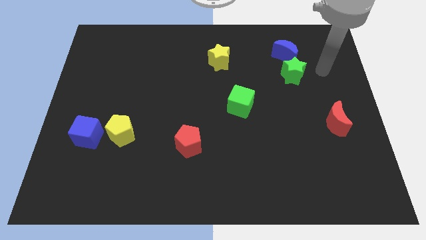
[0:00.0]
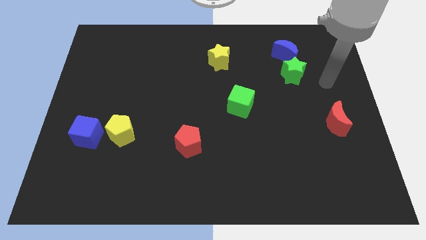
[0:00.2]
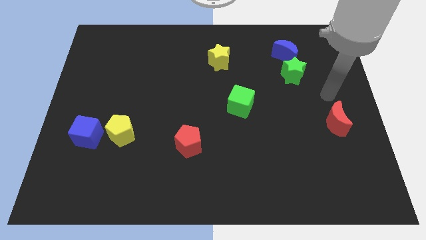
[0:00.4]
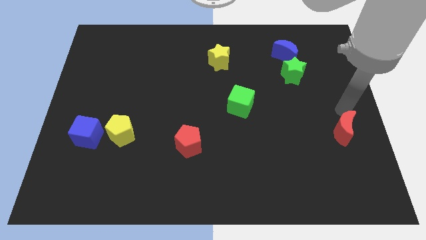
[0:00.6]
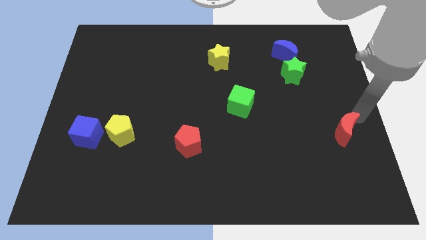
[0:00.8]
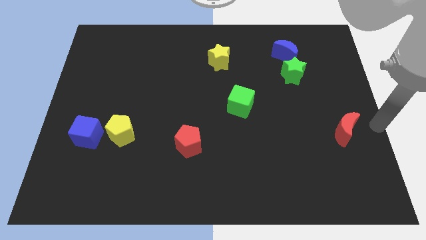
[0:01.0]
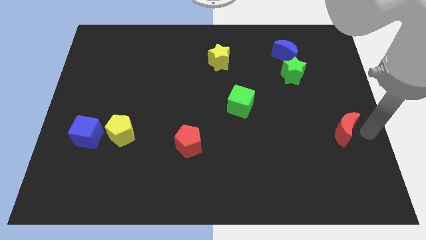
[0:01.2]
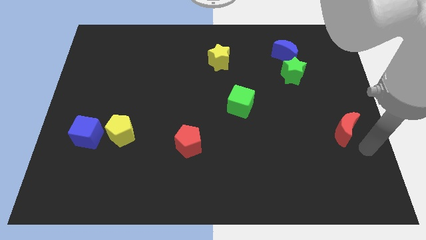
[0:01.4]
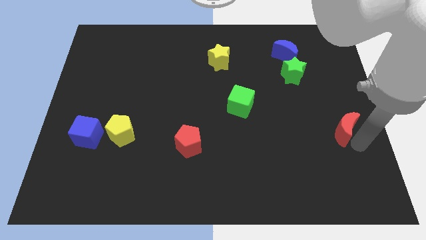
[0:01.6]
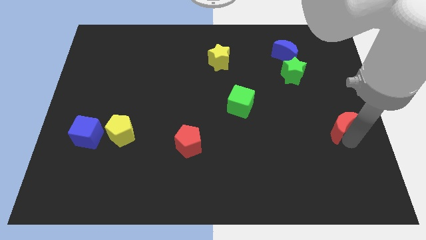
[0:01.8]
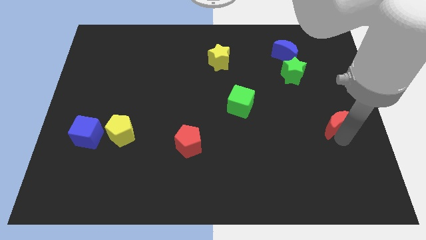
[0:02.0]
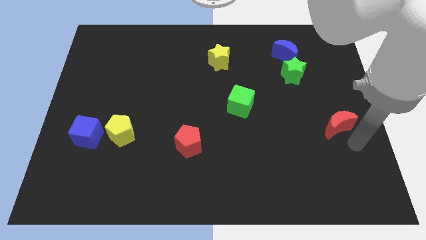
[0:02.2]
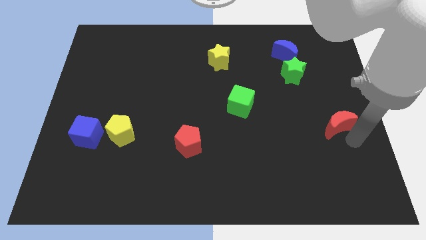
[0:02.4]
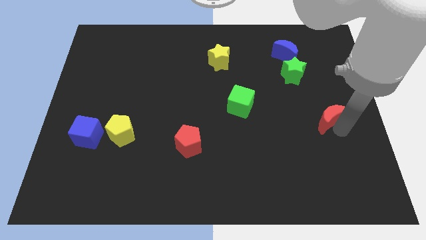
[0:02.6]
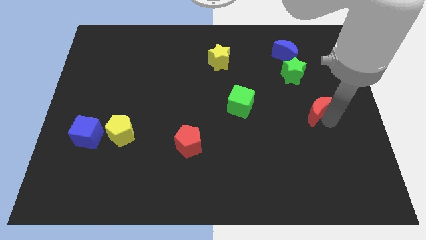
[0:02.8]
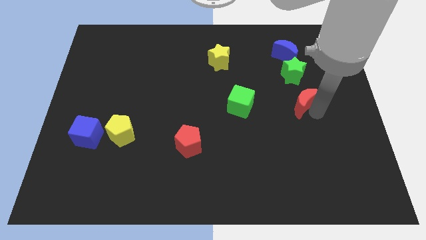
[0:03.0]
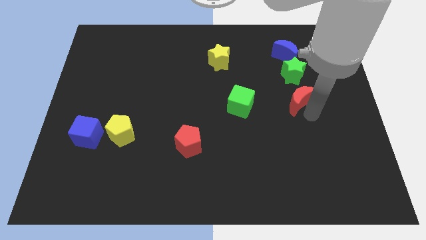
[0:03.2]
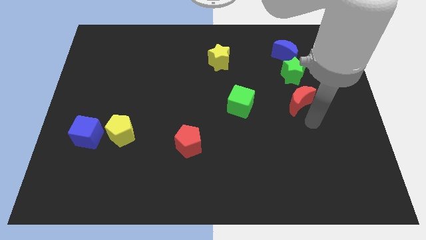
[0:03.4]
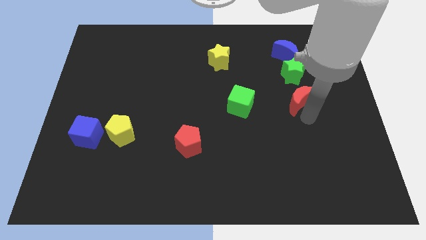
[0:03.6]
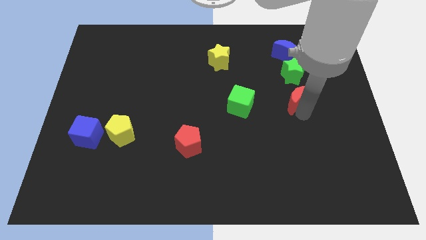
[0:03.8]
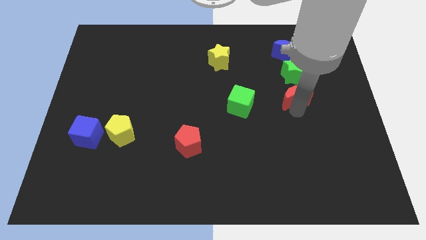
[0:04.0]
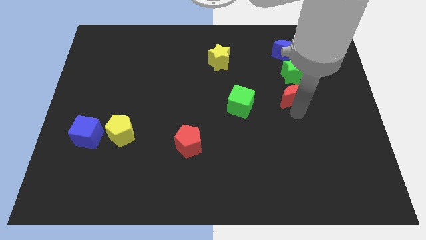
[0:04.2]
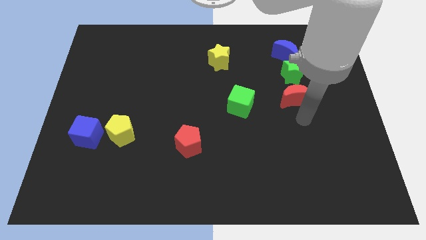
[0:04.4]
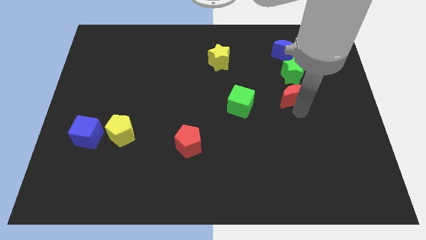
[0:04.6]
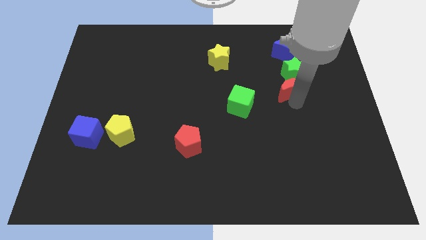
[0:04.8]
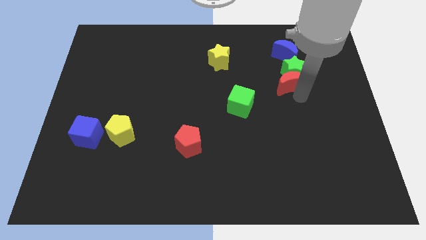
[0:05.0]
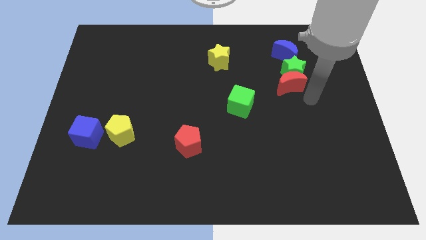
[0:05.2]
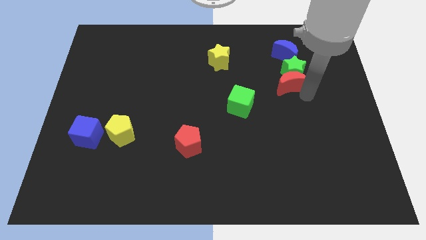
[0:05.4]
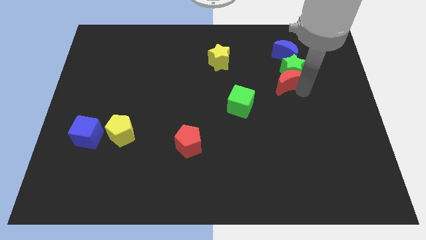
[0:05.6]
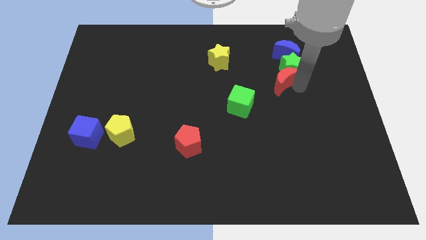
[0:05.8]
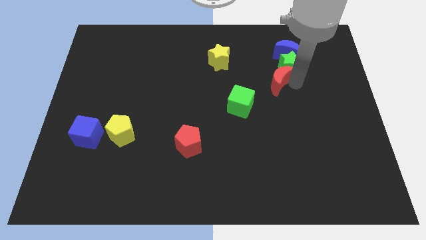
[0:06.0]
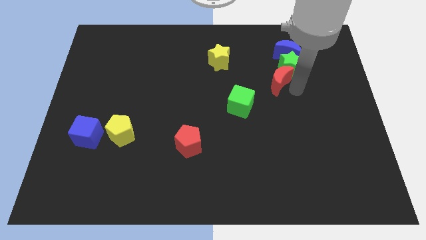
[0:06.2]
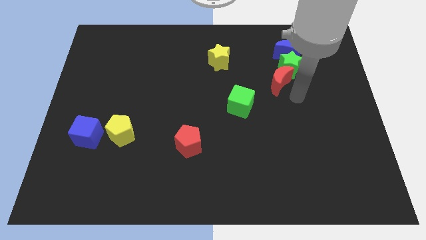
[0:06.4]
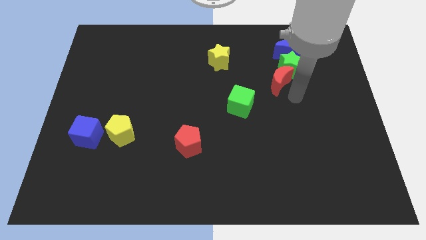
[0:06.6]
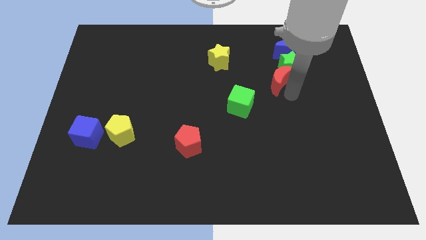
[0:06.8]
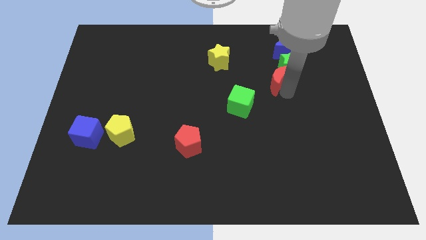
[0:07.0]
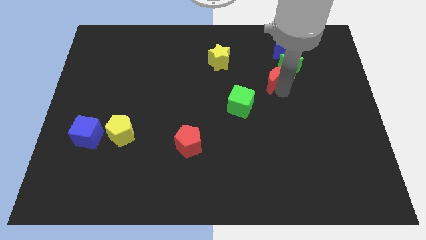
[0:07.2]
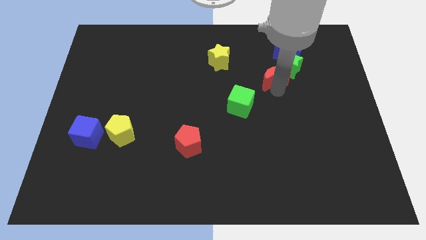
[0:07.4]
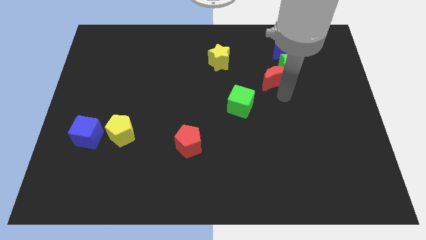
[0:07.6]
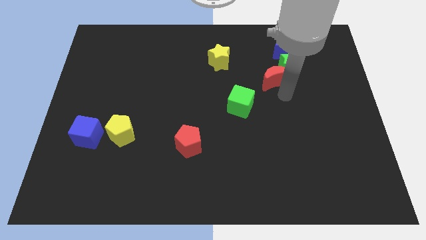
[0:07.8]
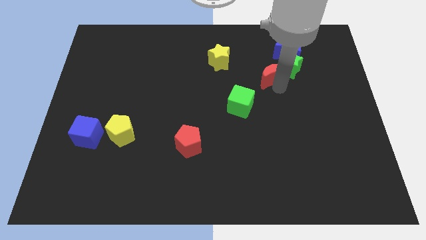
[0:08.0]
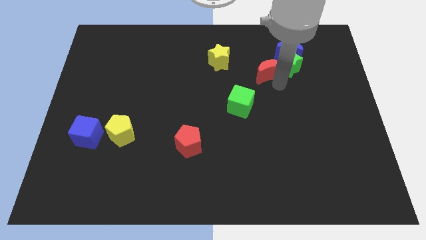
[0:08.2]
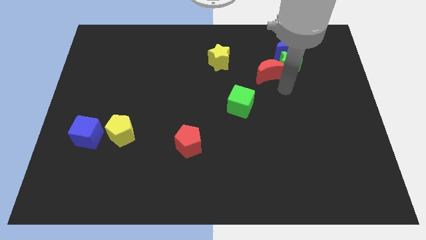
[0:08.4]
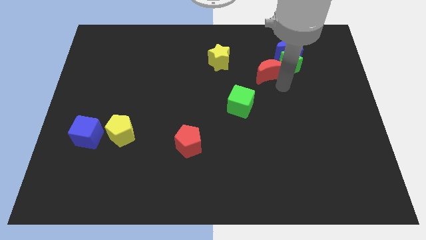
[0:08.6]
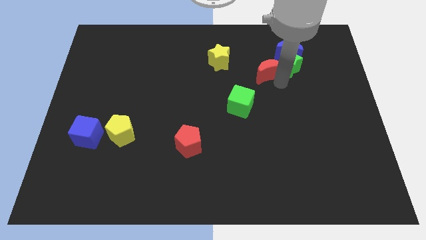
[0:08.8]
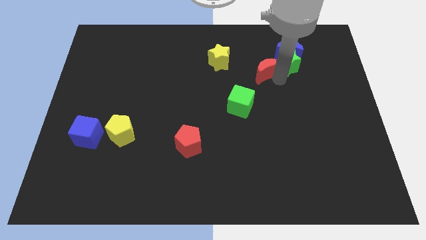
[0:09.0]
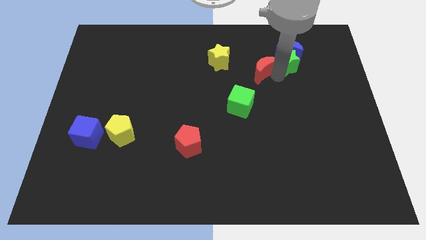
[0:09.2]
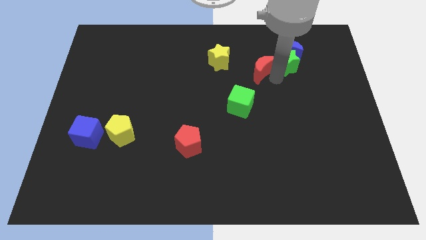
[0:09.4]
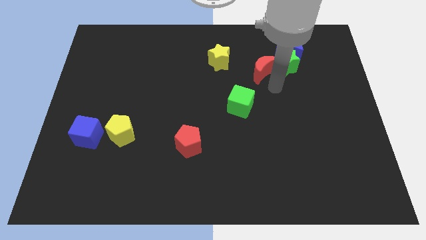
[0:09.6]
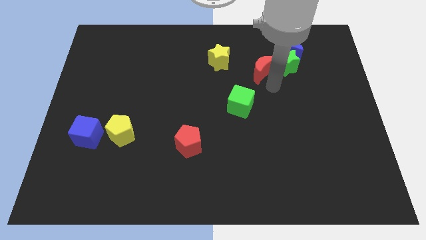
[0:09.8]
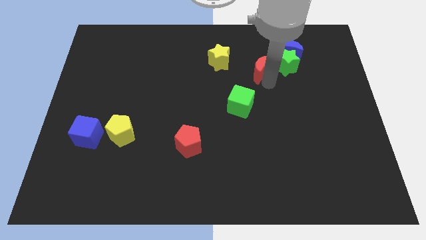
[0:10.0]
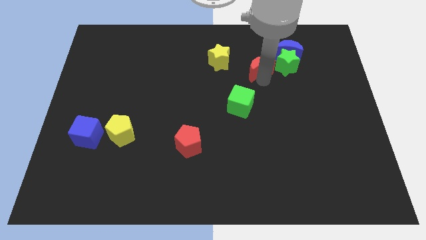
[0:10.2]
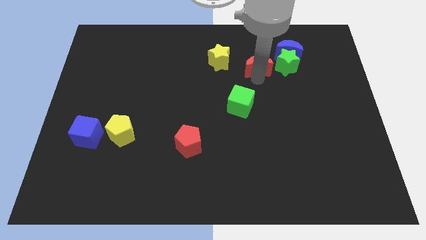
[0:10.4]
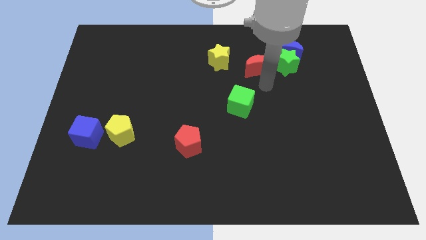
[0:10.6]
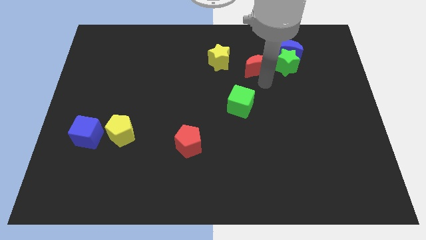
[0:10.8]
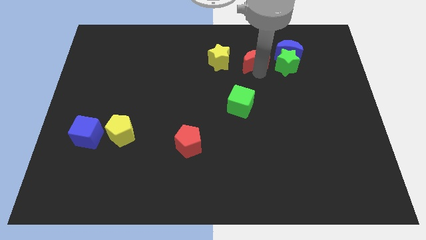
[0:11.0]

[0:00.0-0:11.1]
put the red moon to the left side of the blue moon

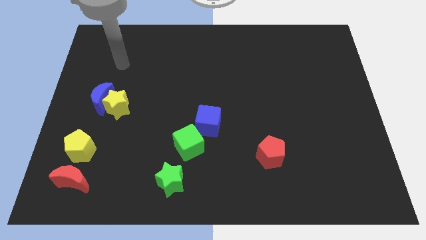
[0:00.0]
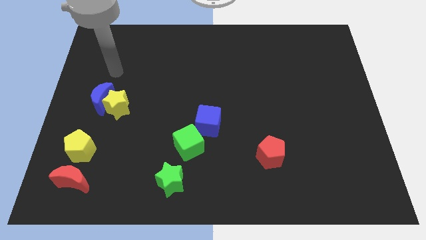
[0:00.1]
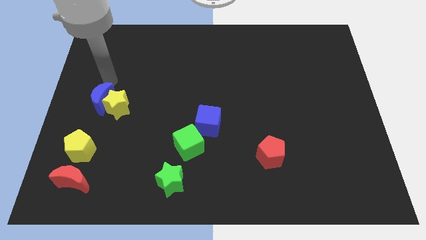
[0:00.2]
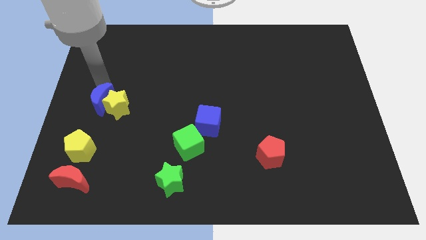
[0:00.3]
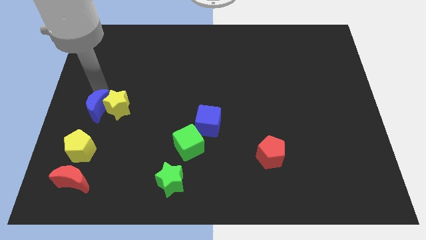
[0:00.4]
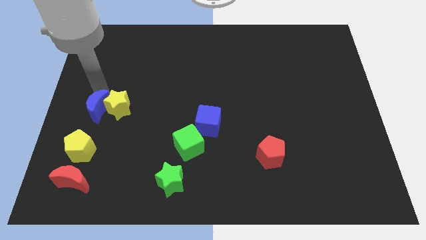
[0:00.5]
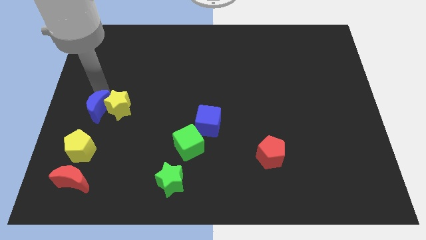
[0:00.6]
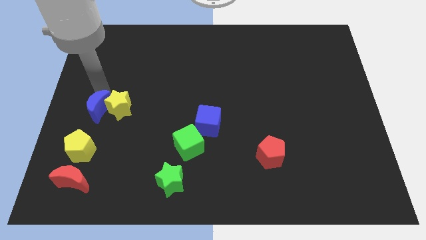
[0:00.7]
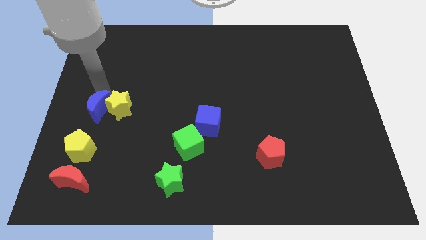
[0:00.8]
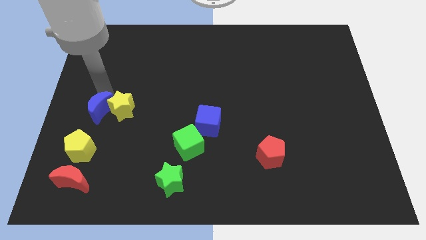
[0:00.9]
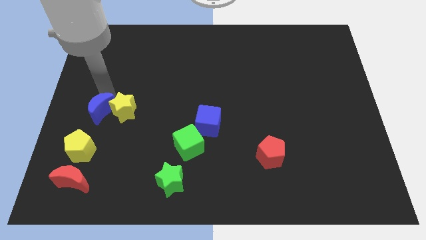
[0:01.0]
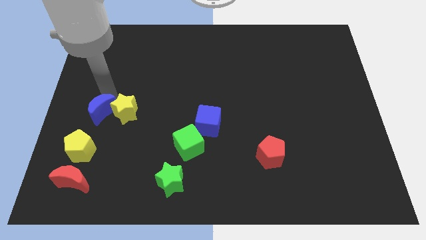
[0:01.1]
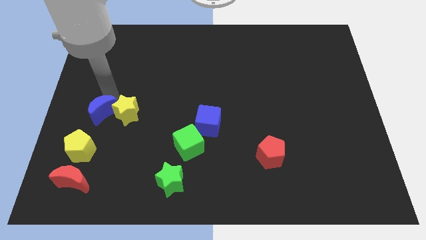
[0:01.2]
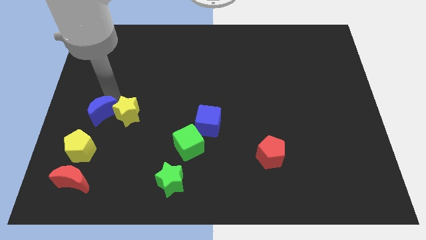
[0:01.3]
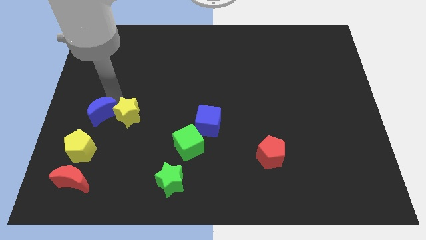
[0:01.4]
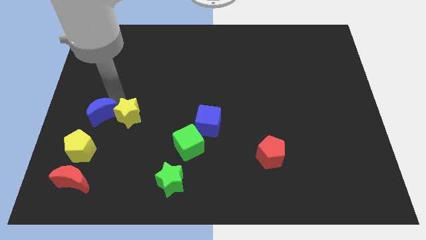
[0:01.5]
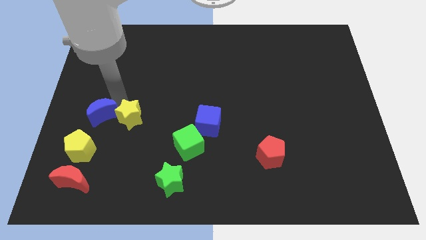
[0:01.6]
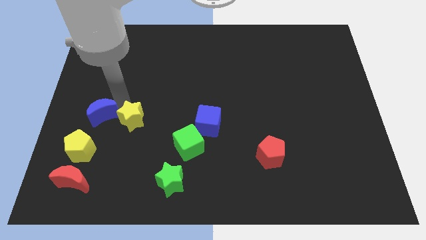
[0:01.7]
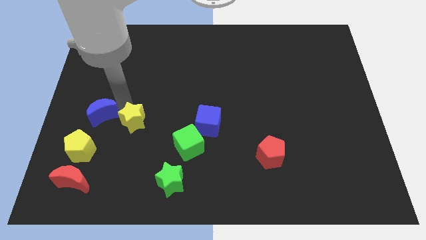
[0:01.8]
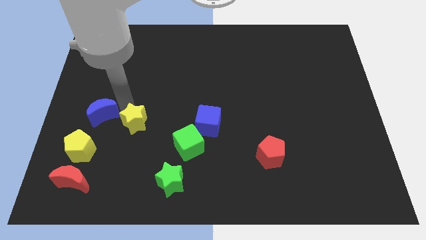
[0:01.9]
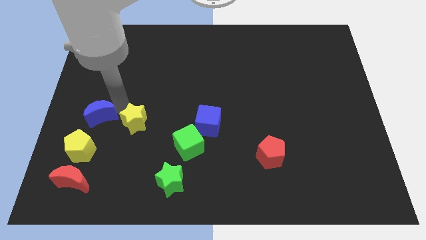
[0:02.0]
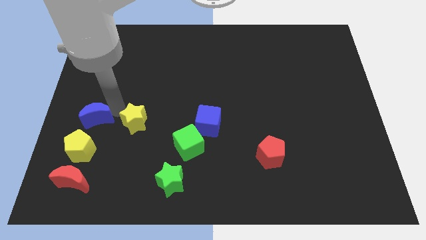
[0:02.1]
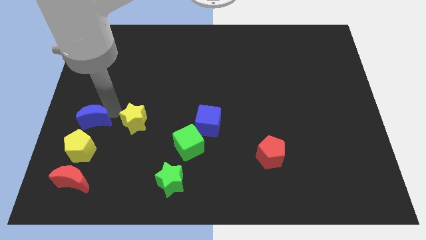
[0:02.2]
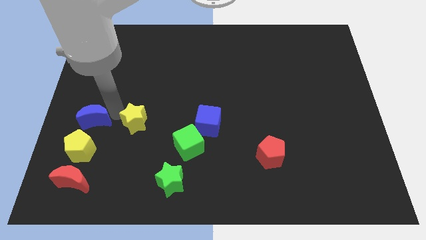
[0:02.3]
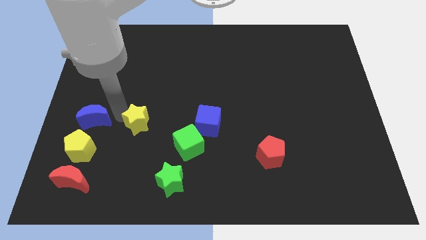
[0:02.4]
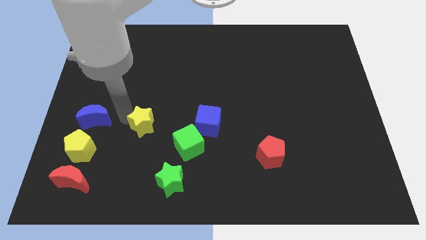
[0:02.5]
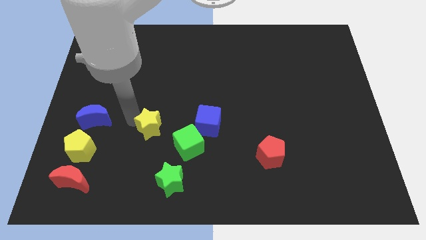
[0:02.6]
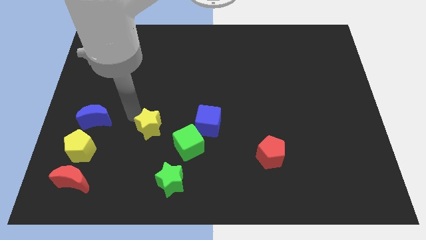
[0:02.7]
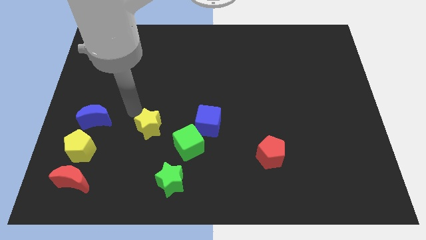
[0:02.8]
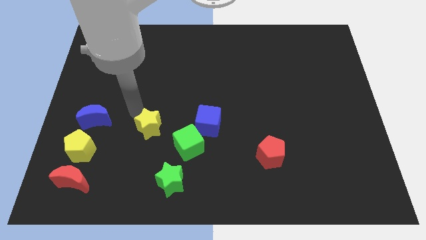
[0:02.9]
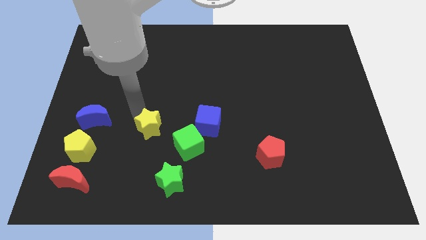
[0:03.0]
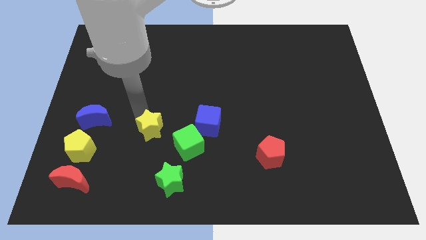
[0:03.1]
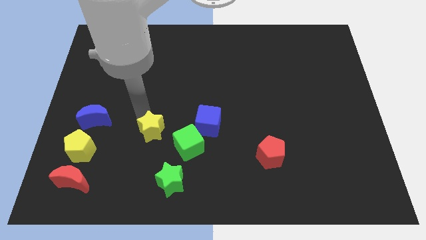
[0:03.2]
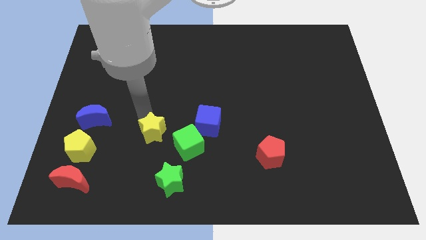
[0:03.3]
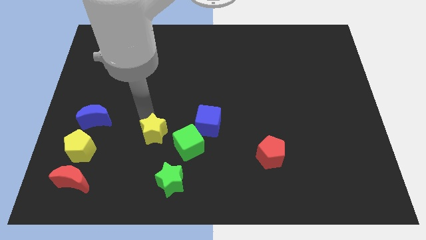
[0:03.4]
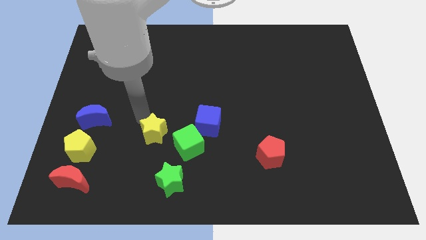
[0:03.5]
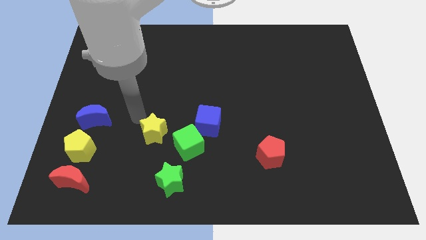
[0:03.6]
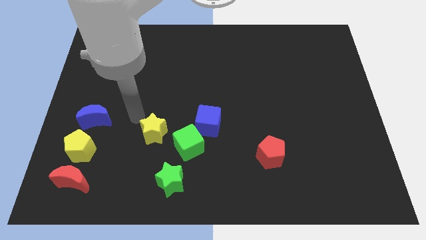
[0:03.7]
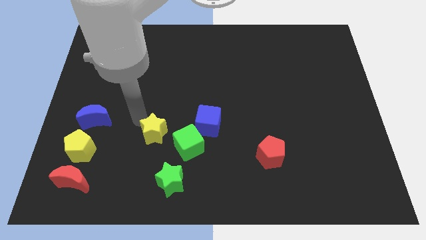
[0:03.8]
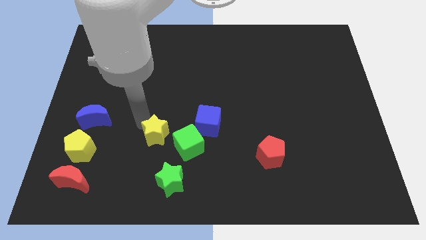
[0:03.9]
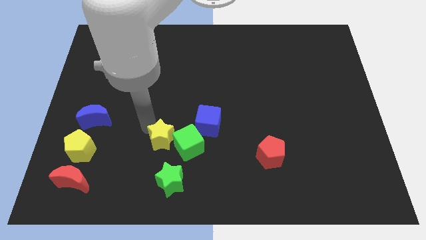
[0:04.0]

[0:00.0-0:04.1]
put the yellow star to the bottom left of the blue cube
